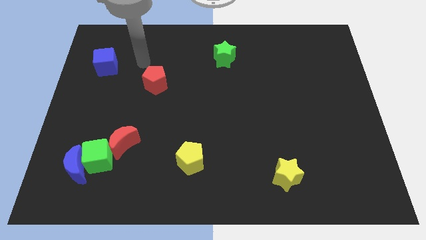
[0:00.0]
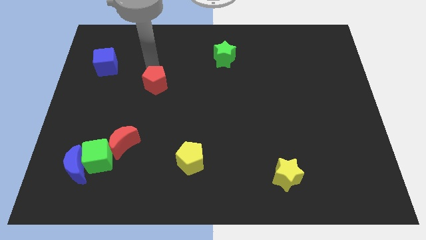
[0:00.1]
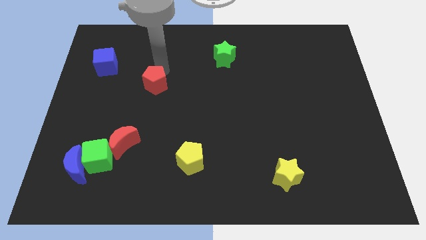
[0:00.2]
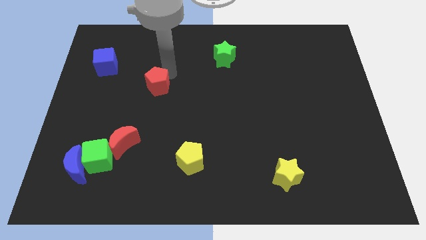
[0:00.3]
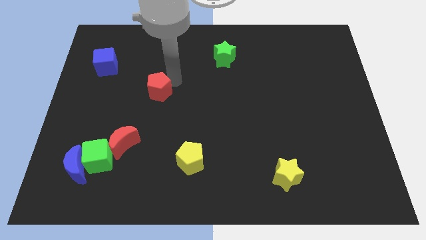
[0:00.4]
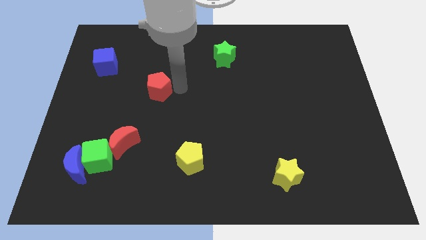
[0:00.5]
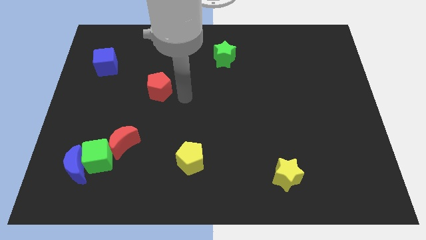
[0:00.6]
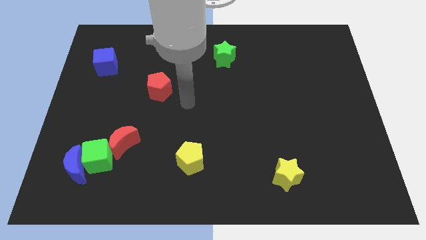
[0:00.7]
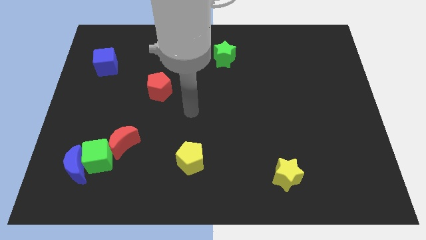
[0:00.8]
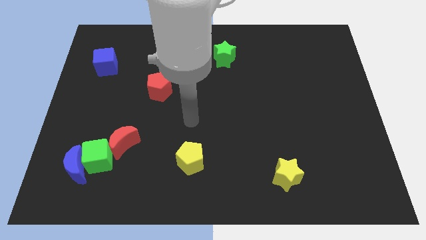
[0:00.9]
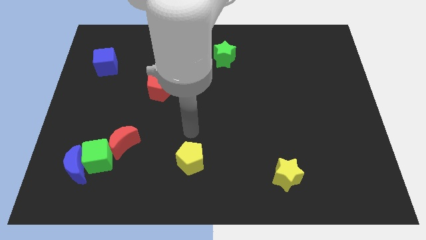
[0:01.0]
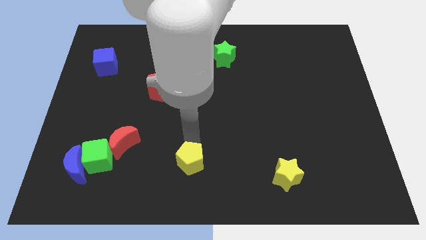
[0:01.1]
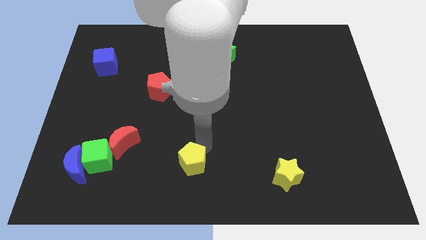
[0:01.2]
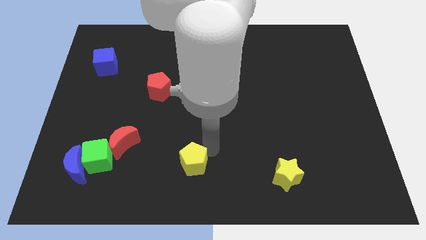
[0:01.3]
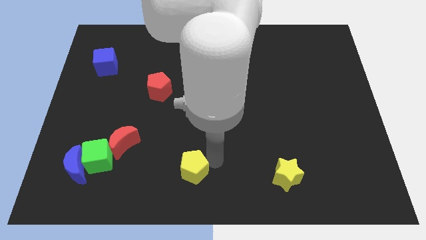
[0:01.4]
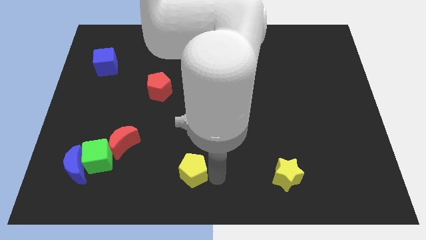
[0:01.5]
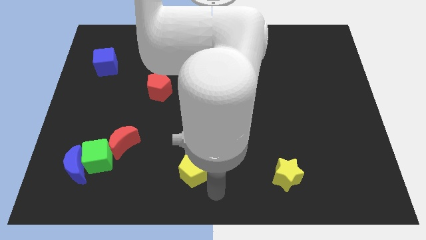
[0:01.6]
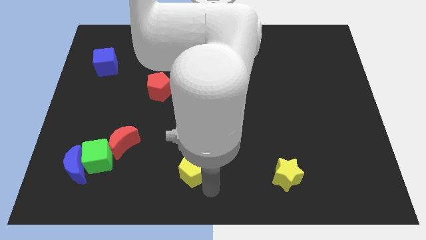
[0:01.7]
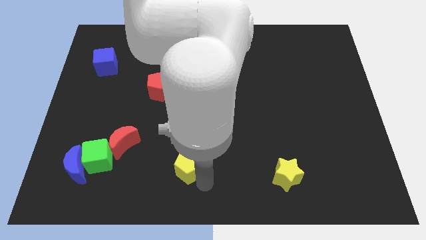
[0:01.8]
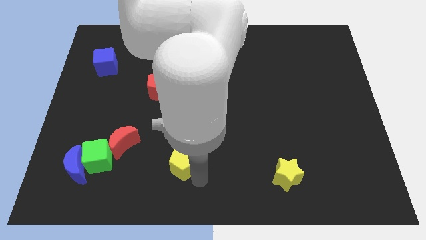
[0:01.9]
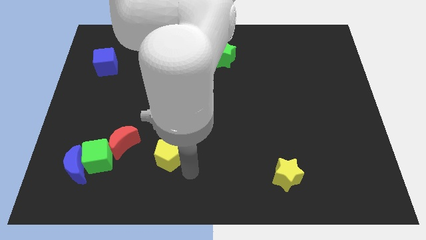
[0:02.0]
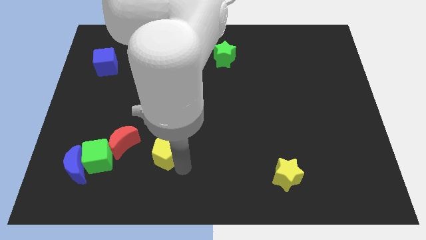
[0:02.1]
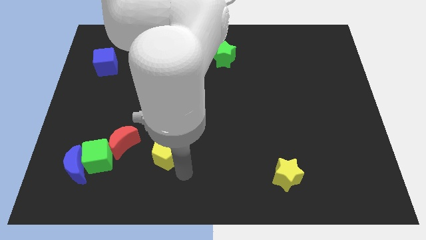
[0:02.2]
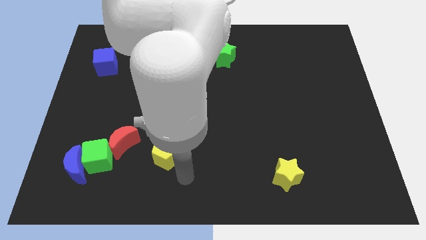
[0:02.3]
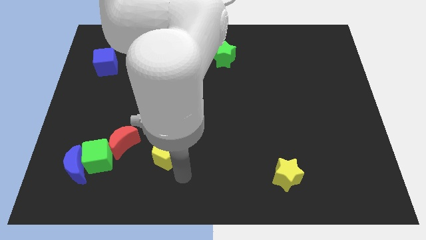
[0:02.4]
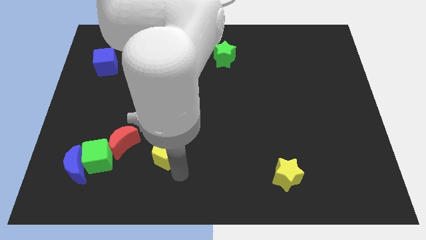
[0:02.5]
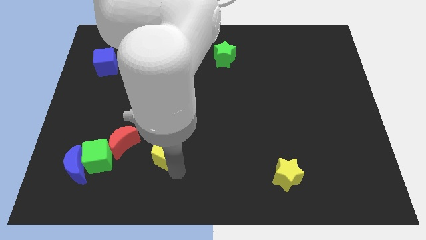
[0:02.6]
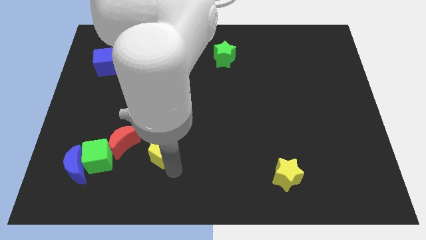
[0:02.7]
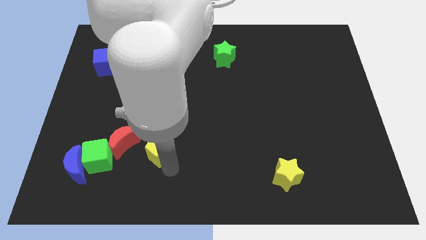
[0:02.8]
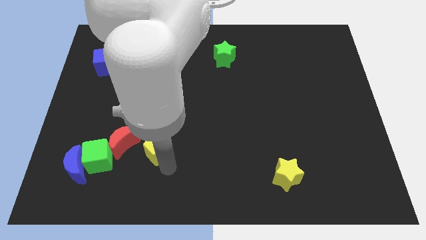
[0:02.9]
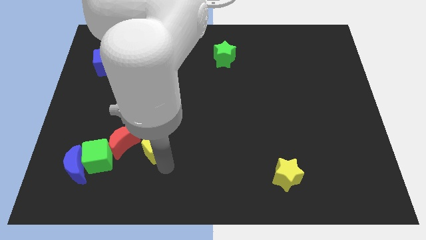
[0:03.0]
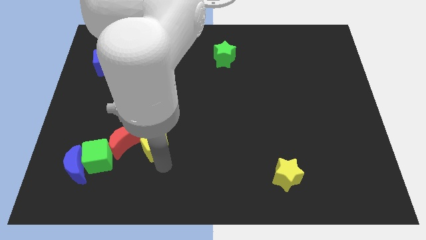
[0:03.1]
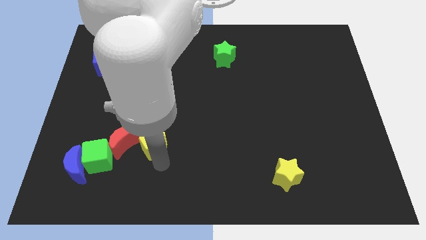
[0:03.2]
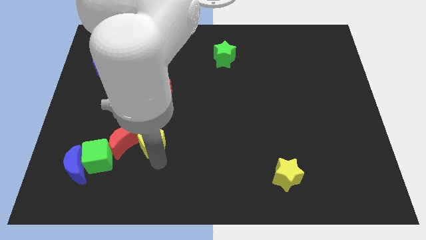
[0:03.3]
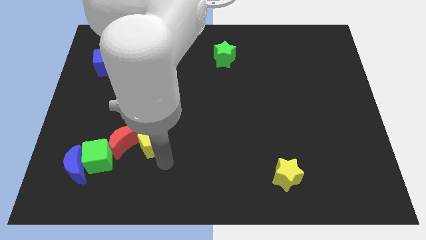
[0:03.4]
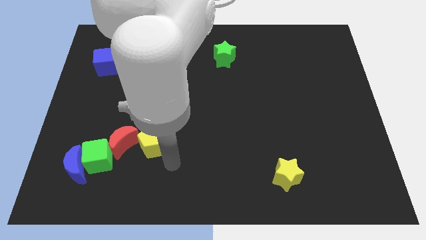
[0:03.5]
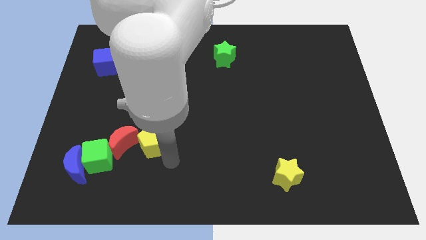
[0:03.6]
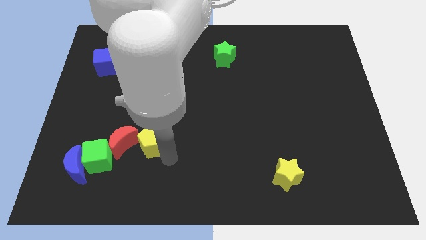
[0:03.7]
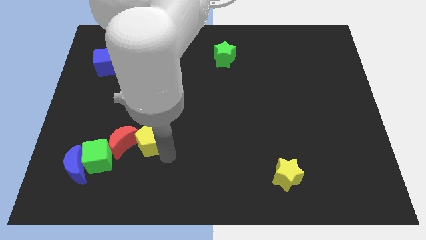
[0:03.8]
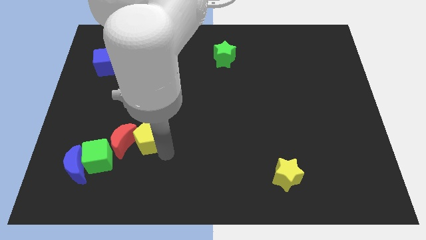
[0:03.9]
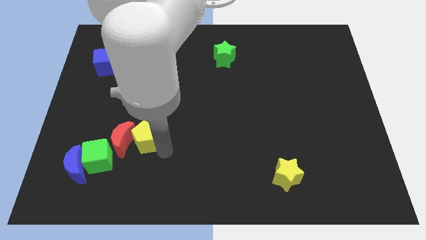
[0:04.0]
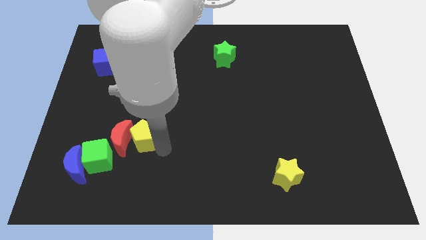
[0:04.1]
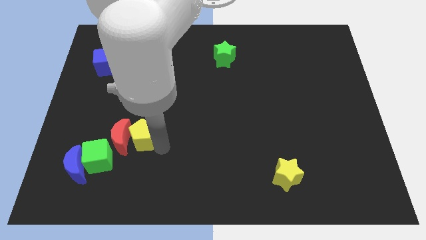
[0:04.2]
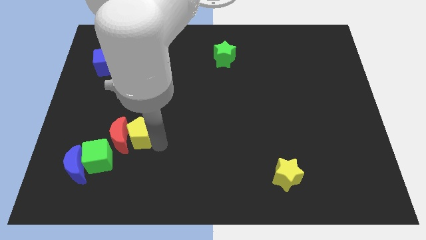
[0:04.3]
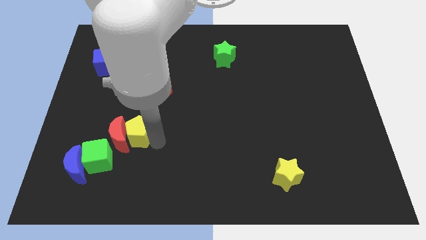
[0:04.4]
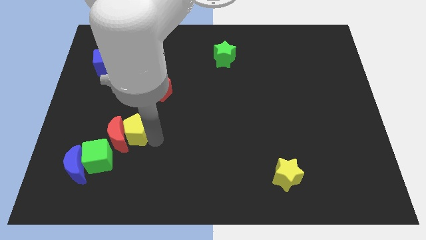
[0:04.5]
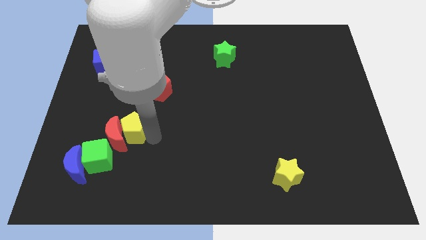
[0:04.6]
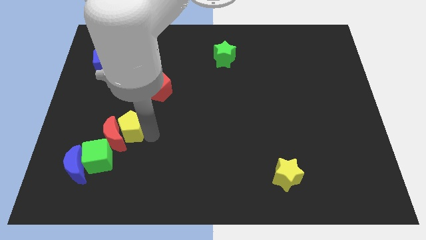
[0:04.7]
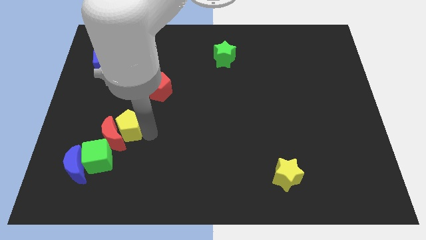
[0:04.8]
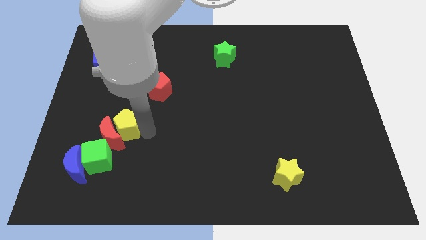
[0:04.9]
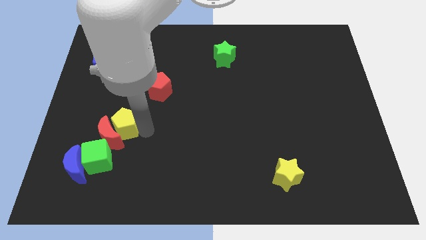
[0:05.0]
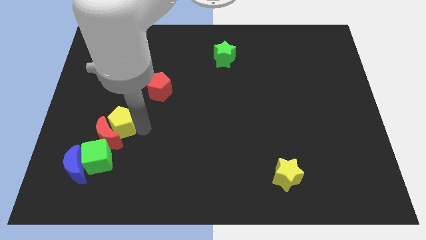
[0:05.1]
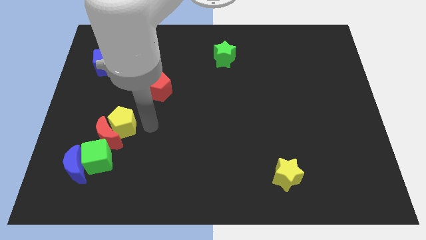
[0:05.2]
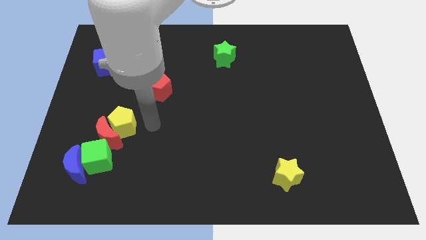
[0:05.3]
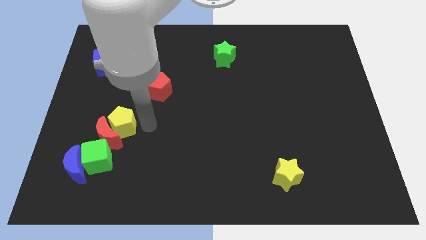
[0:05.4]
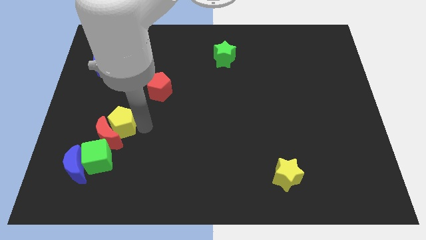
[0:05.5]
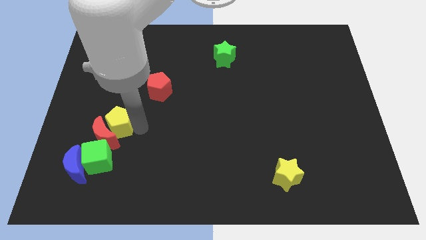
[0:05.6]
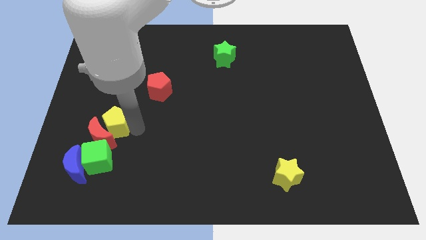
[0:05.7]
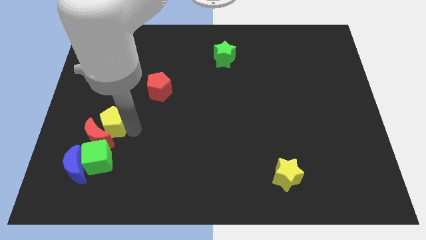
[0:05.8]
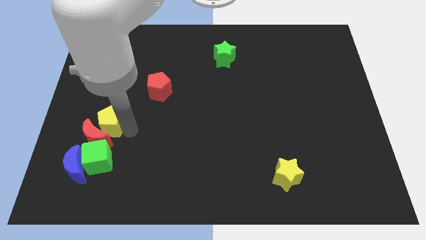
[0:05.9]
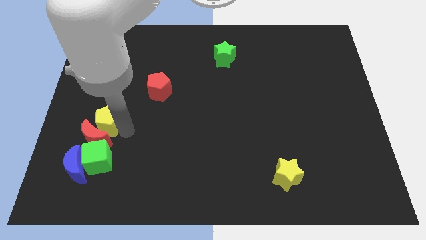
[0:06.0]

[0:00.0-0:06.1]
slide the yellow pentagon to the top side of the blue moon

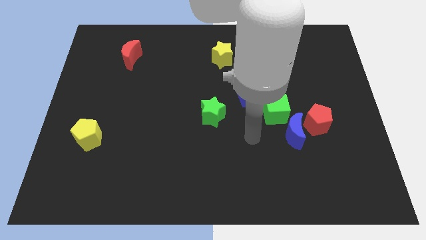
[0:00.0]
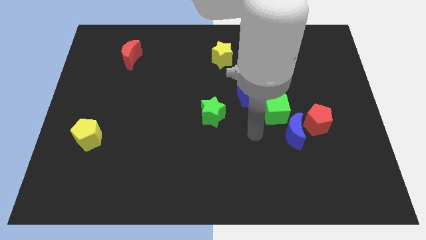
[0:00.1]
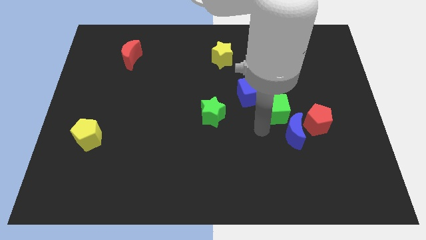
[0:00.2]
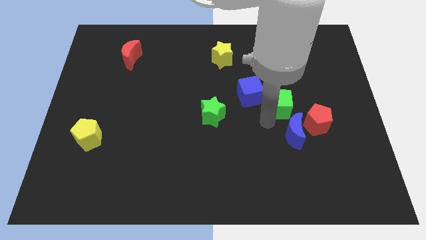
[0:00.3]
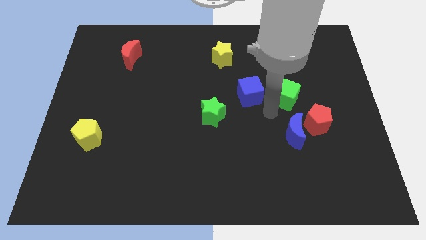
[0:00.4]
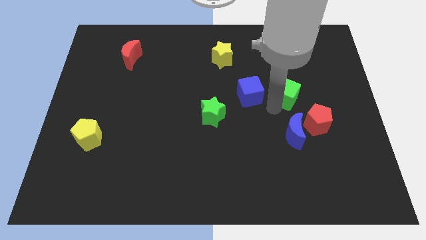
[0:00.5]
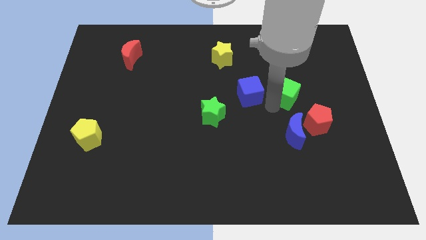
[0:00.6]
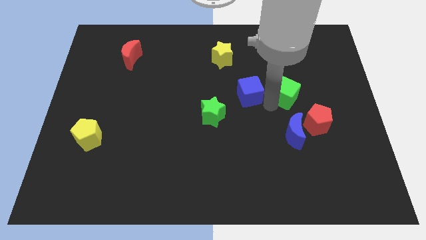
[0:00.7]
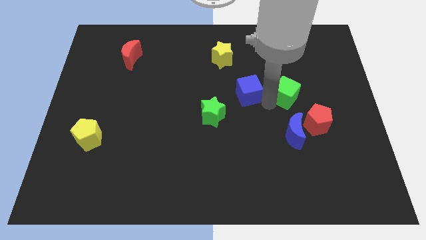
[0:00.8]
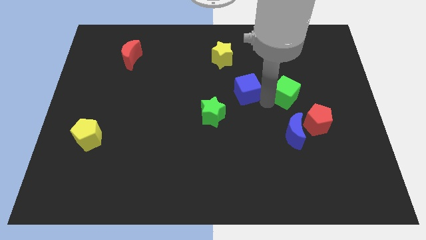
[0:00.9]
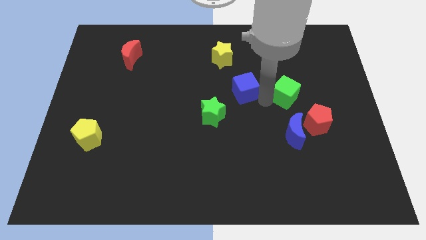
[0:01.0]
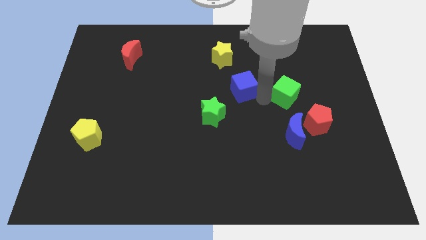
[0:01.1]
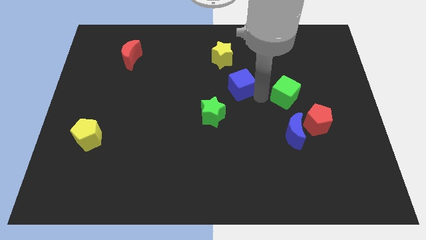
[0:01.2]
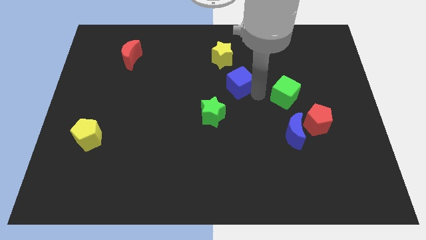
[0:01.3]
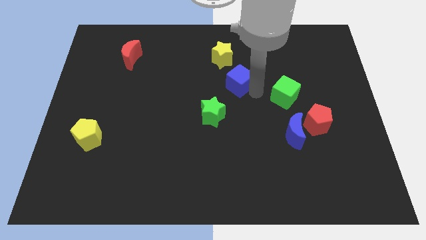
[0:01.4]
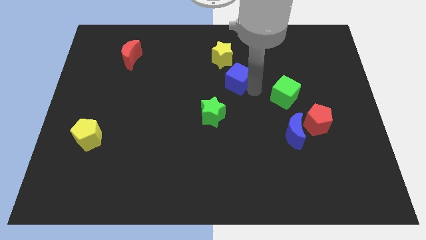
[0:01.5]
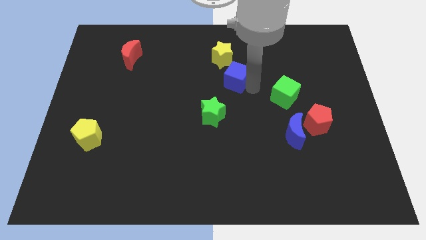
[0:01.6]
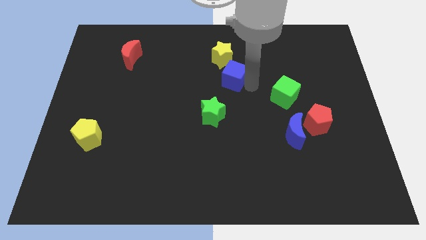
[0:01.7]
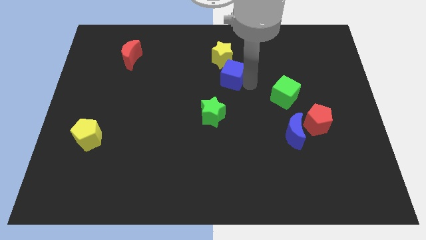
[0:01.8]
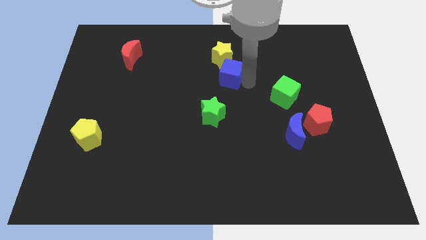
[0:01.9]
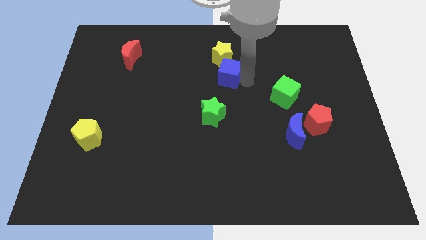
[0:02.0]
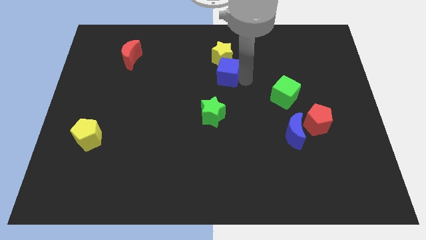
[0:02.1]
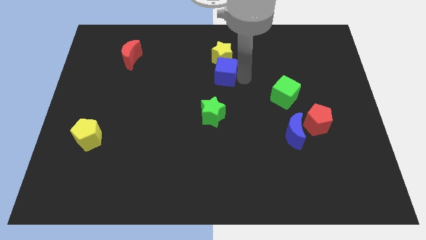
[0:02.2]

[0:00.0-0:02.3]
put the blue cube to the bottom left of the yellow star

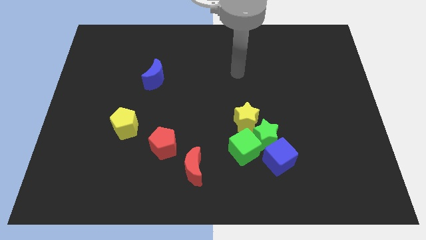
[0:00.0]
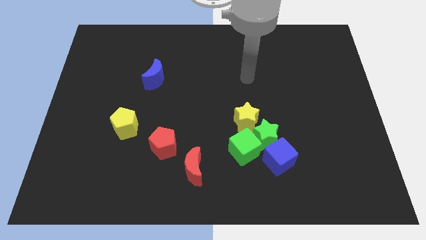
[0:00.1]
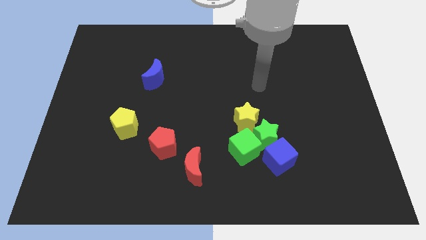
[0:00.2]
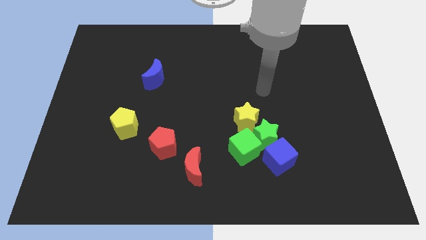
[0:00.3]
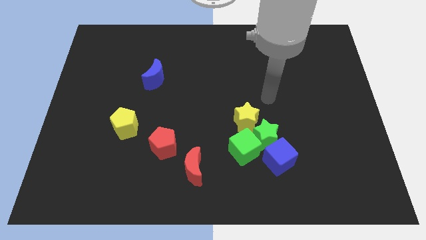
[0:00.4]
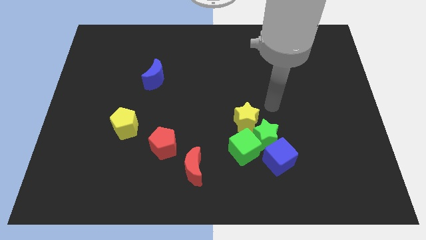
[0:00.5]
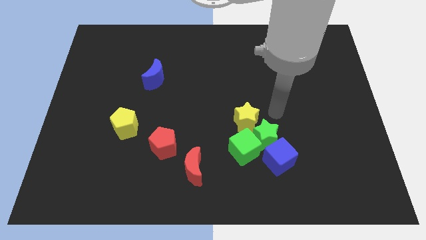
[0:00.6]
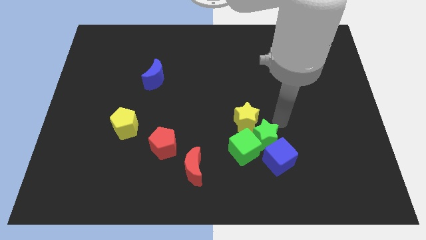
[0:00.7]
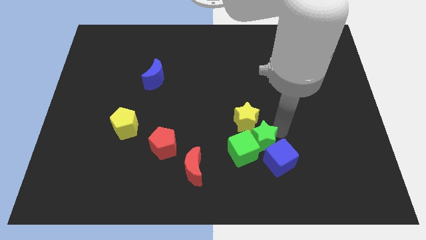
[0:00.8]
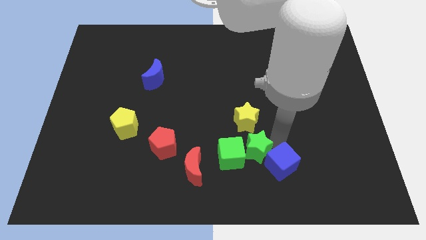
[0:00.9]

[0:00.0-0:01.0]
put the green cube right of the red pentagon
